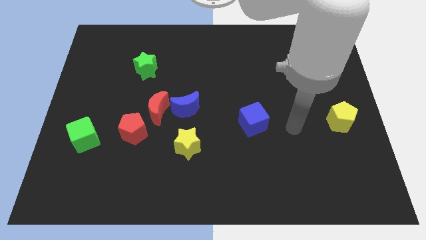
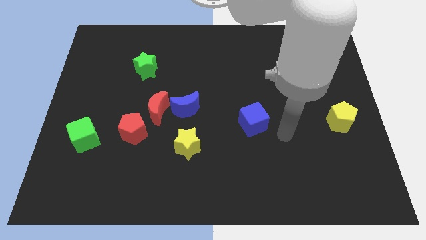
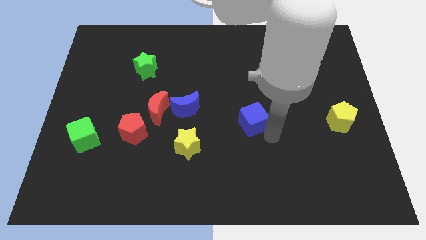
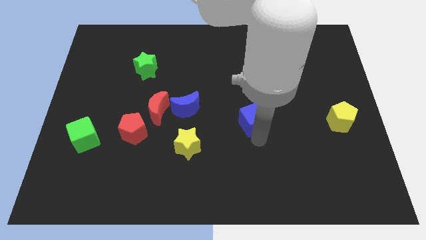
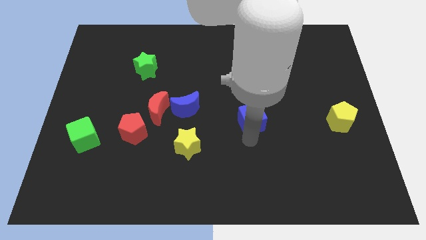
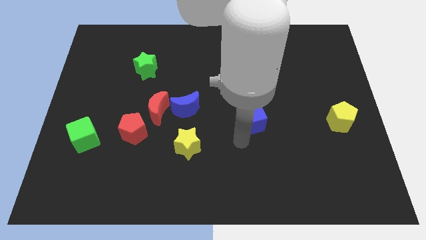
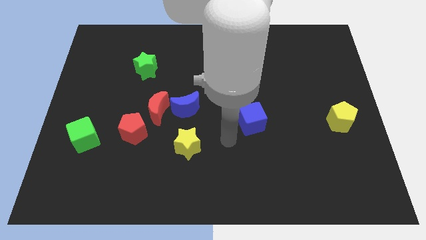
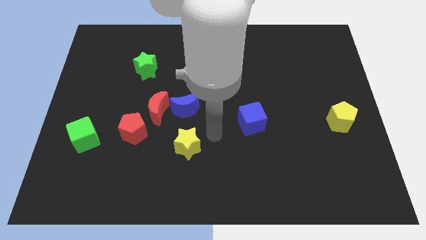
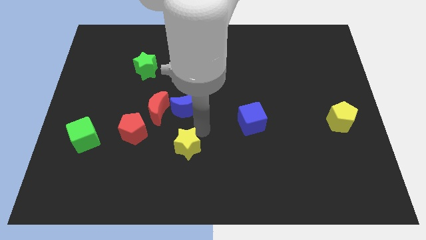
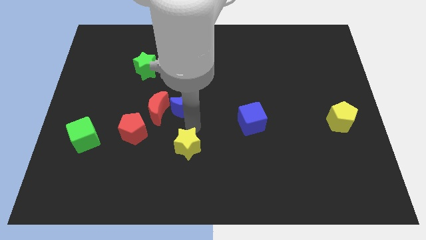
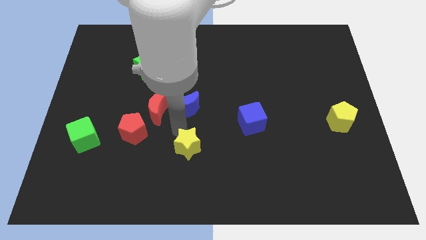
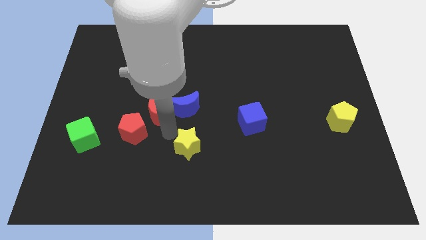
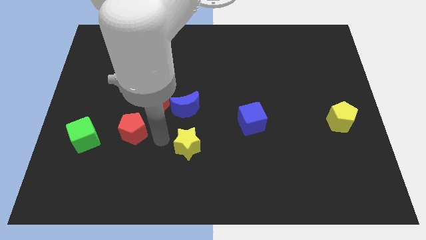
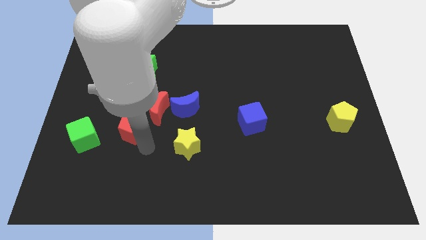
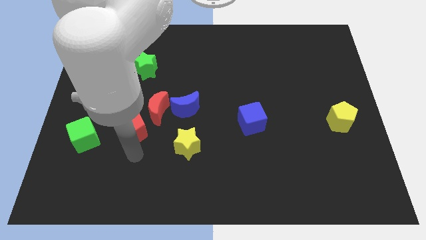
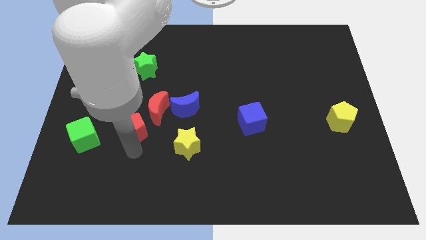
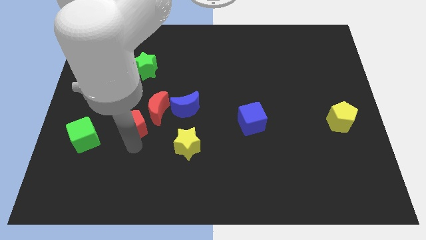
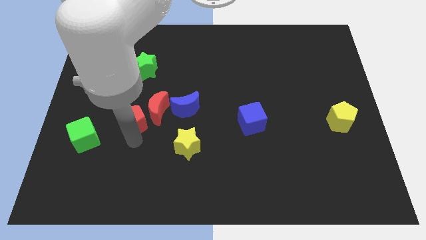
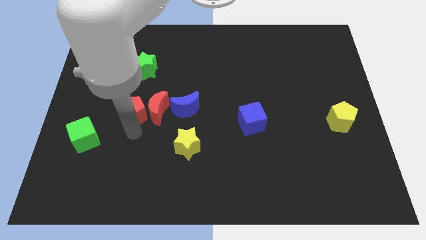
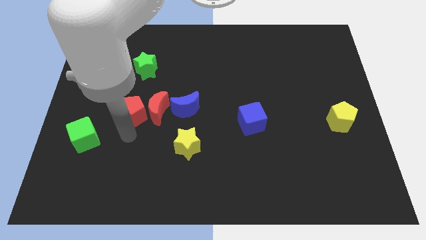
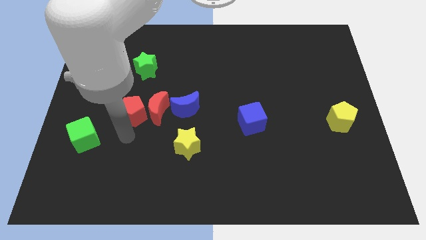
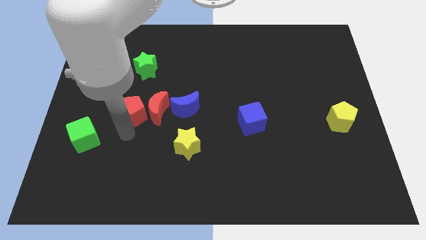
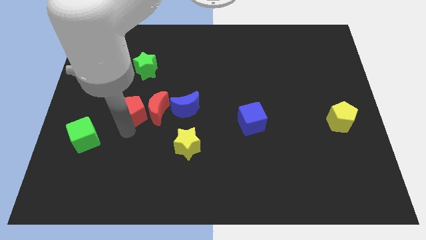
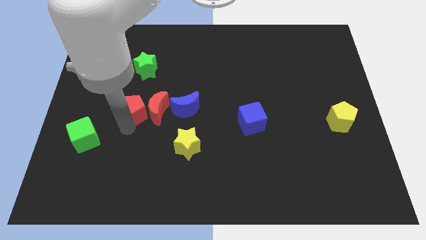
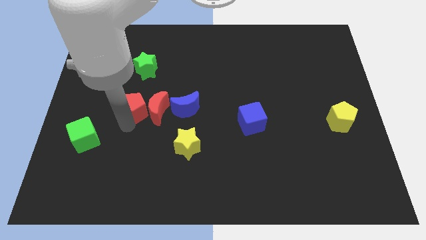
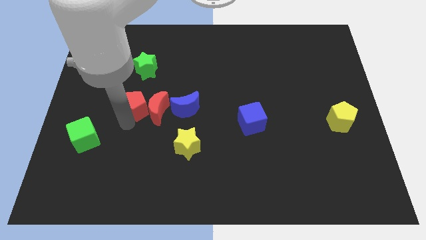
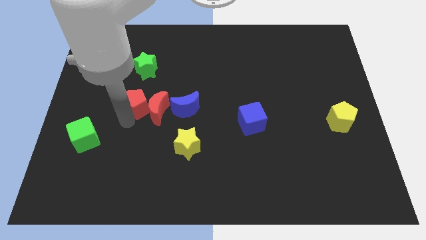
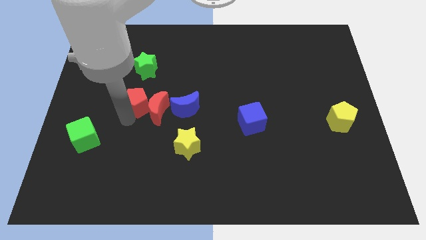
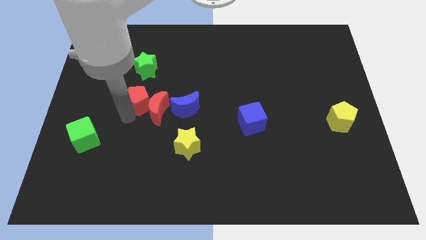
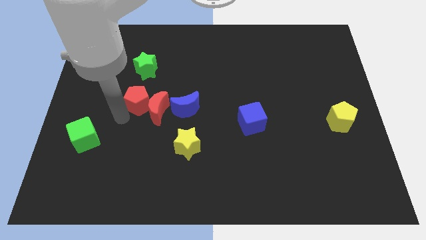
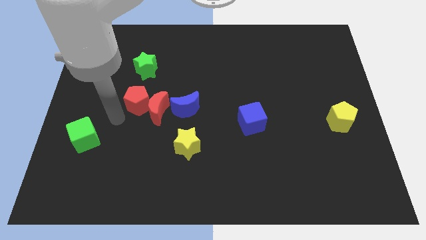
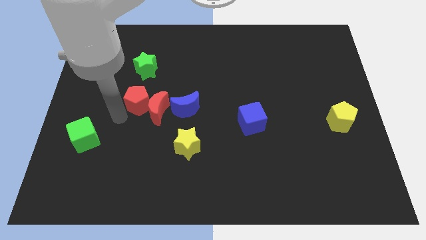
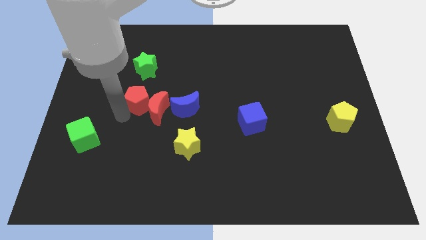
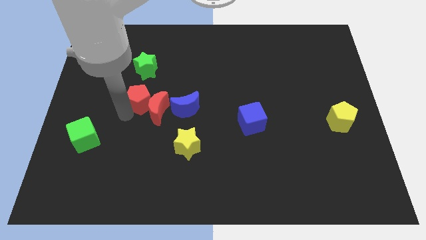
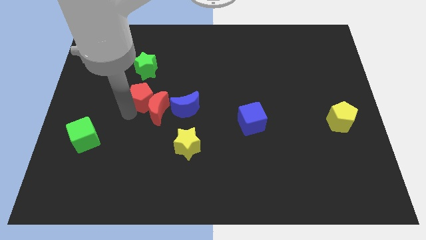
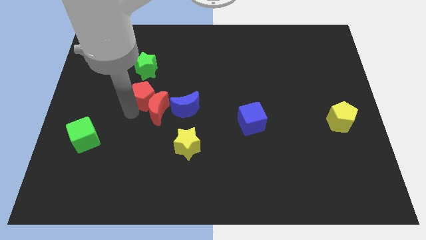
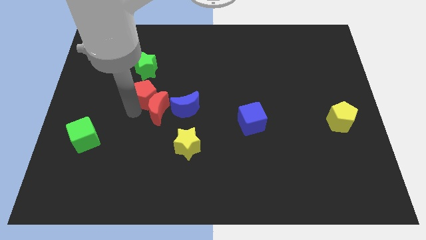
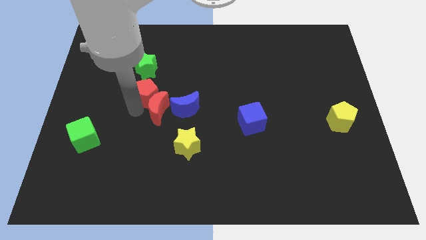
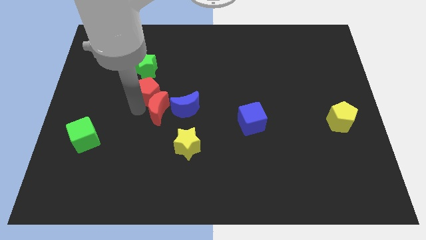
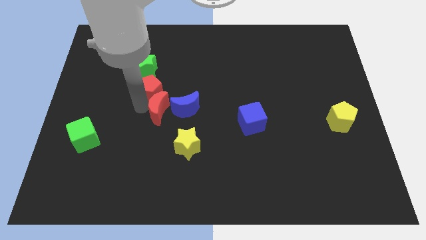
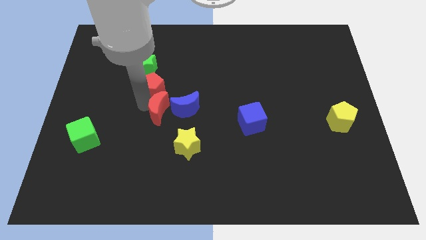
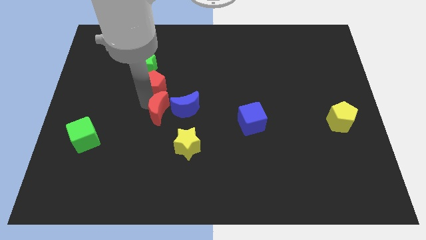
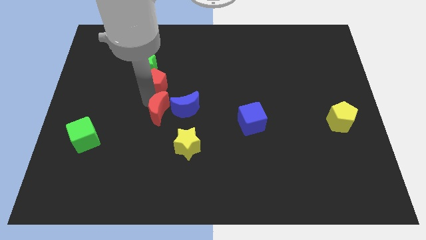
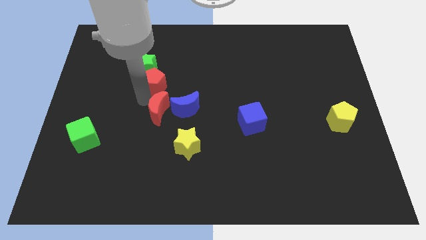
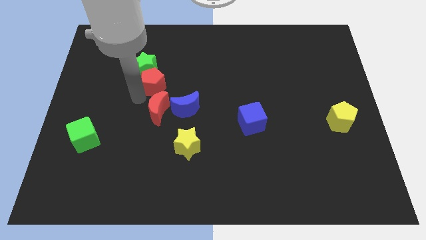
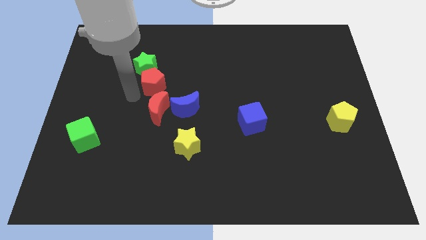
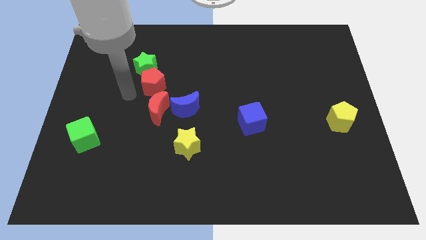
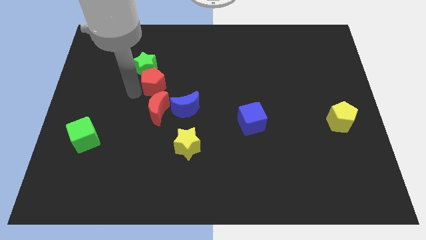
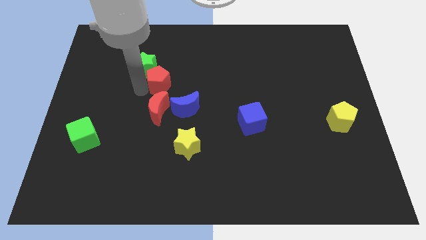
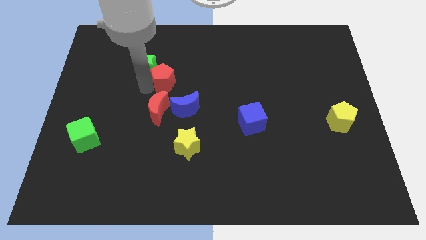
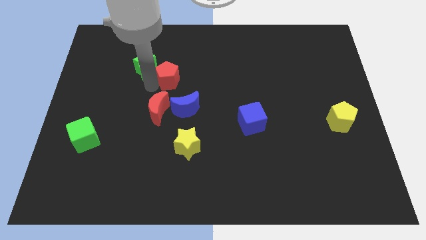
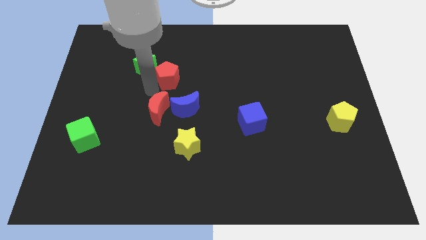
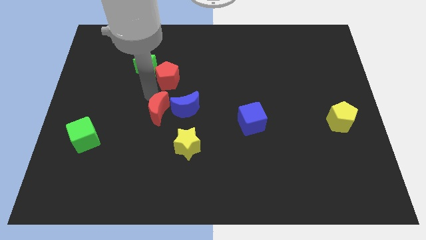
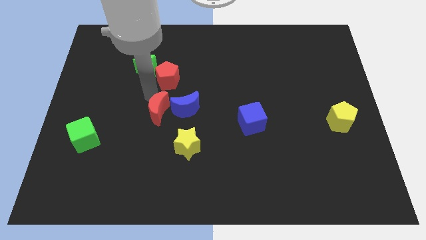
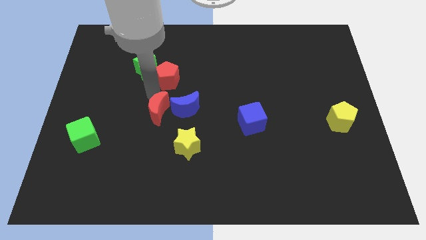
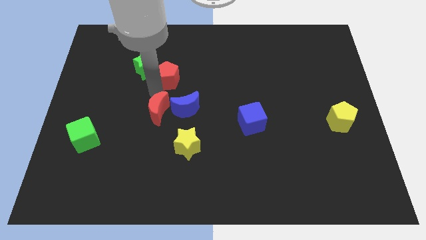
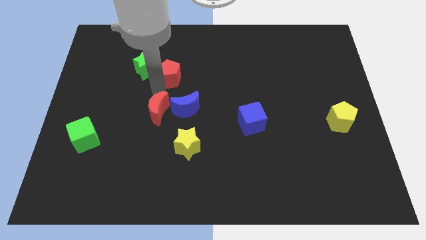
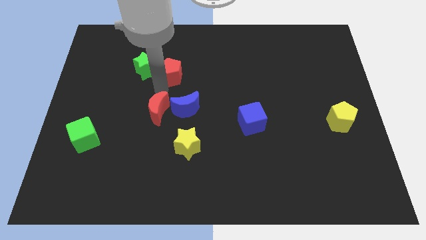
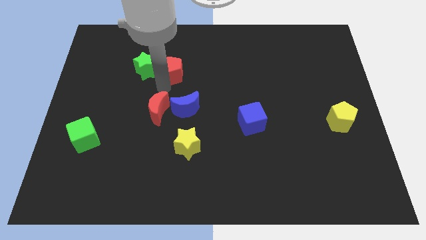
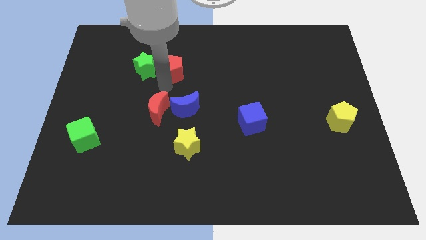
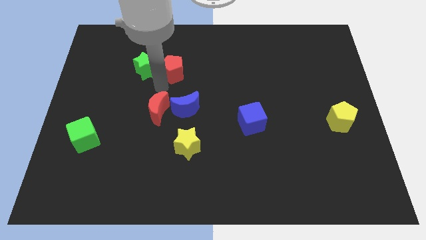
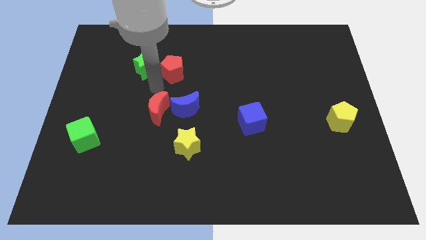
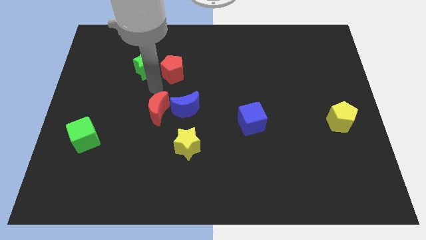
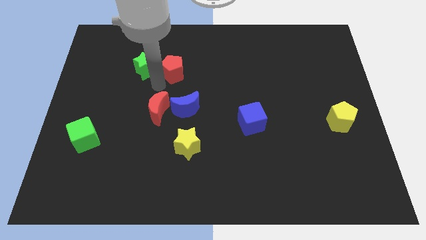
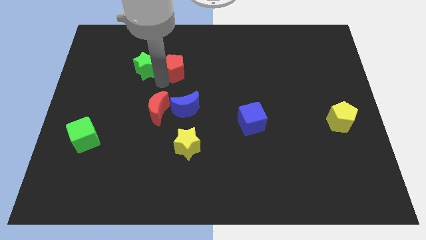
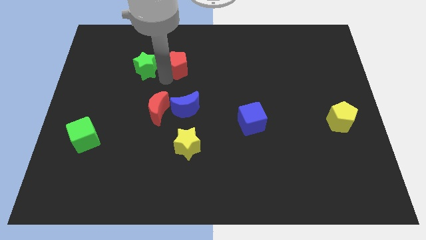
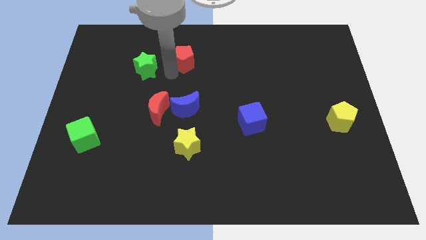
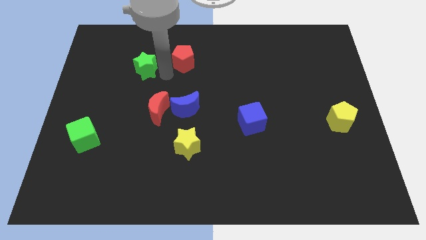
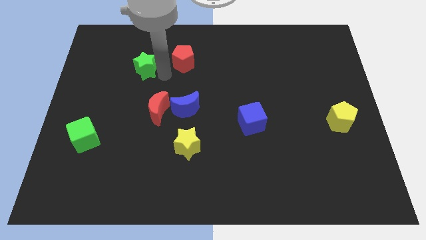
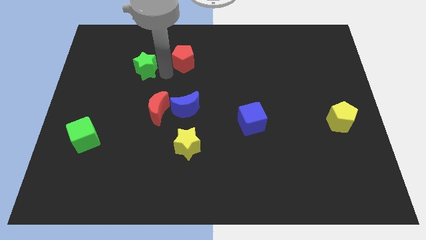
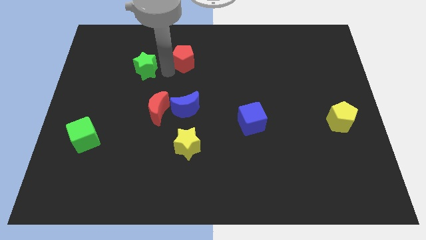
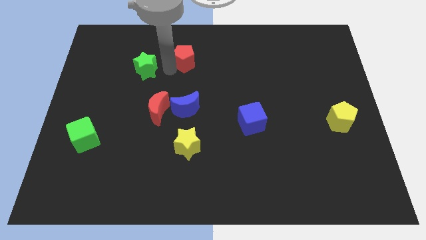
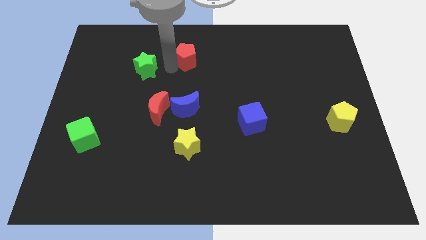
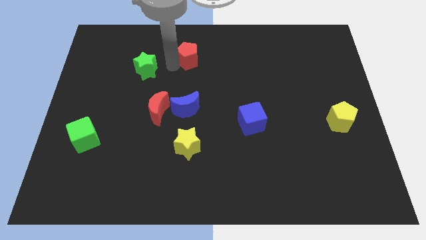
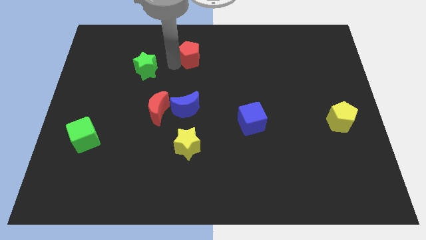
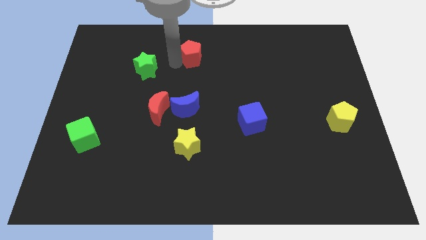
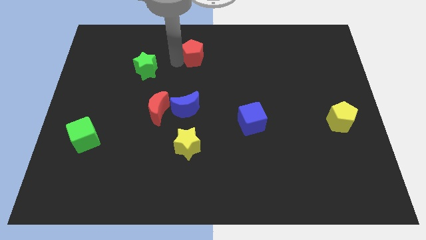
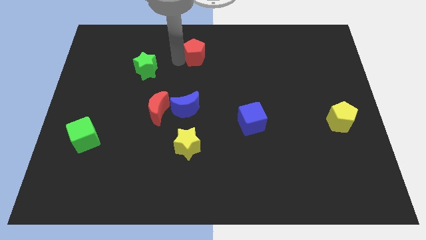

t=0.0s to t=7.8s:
push the red pentagon to the top
